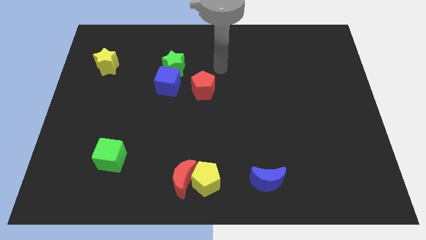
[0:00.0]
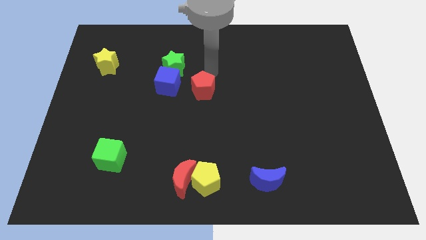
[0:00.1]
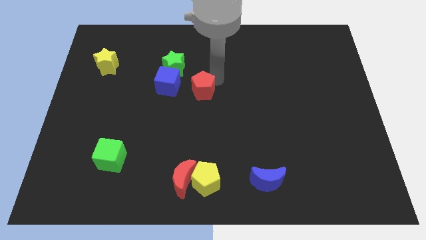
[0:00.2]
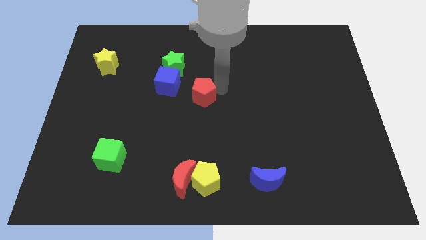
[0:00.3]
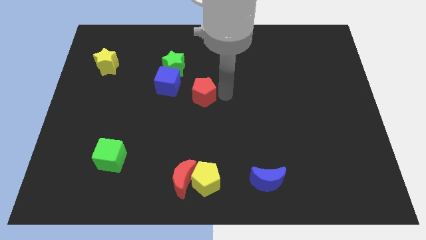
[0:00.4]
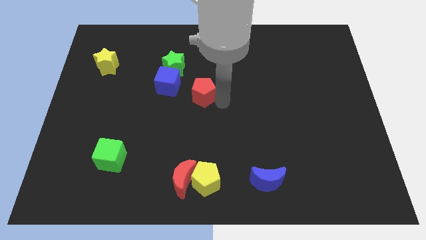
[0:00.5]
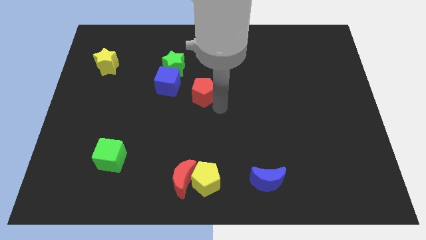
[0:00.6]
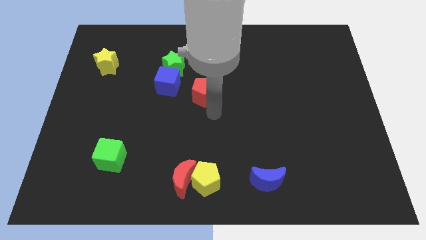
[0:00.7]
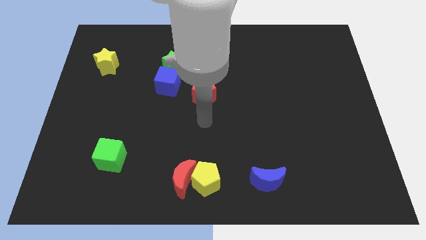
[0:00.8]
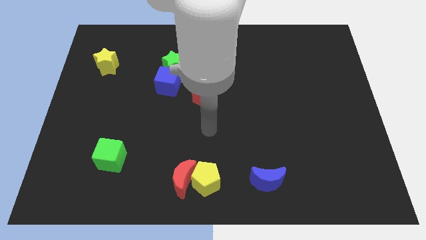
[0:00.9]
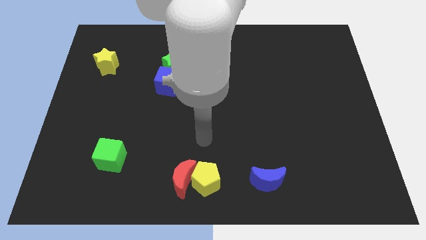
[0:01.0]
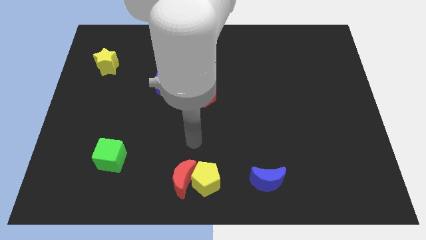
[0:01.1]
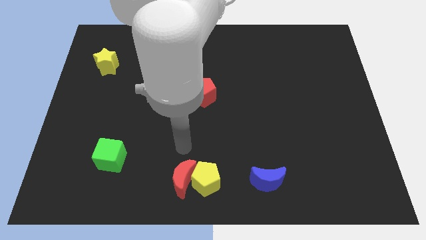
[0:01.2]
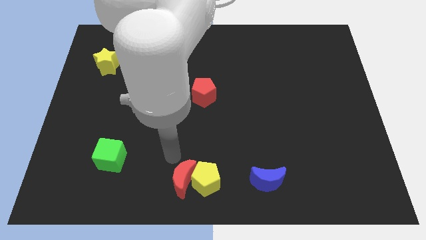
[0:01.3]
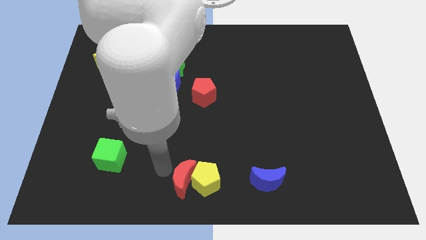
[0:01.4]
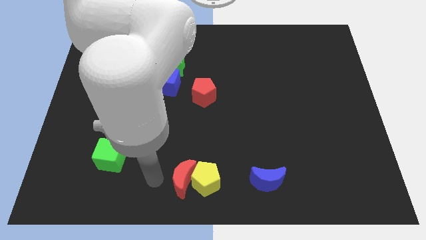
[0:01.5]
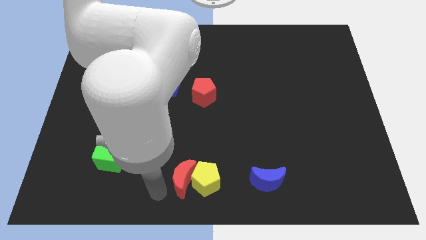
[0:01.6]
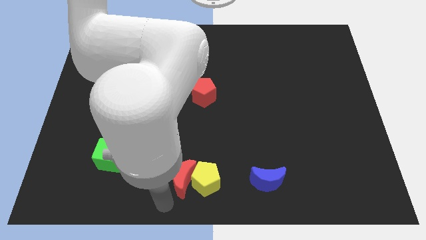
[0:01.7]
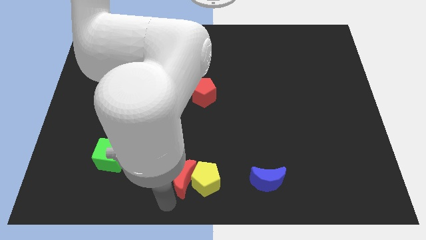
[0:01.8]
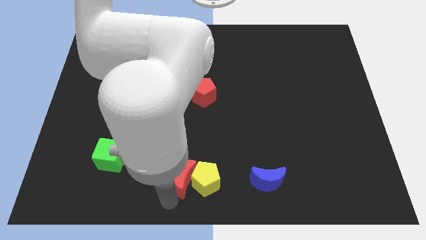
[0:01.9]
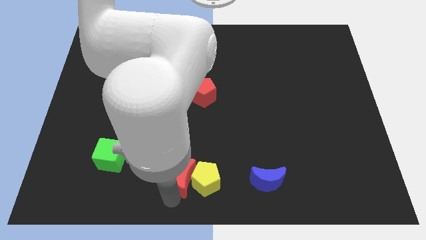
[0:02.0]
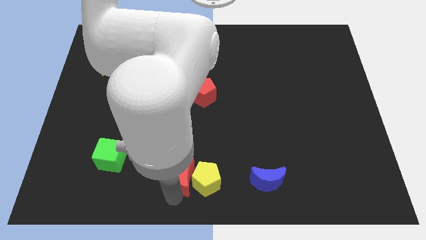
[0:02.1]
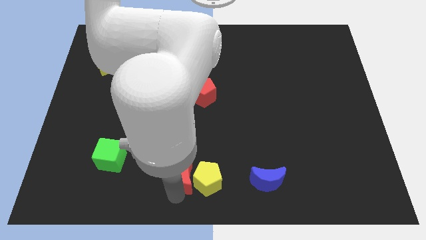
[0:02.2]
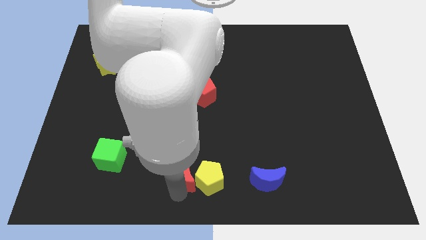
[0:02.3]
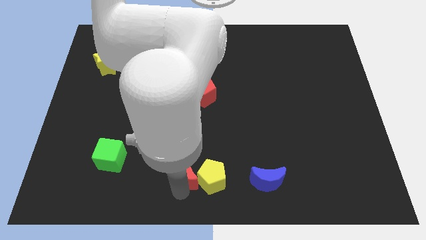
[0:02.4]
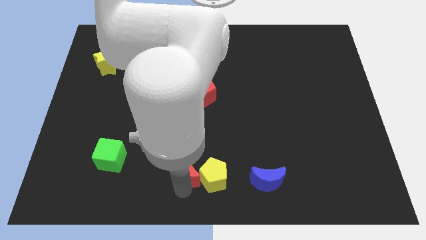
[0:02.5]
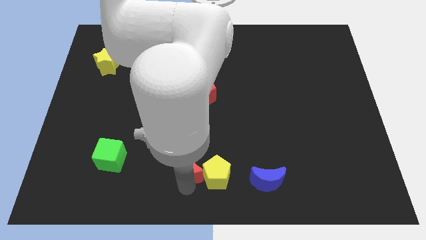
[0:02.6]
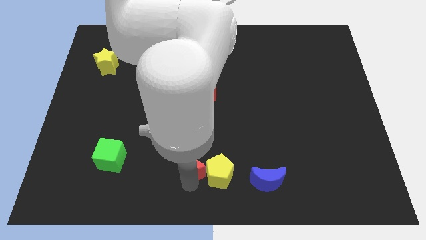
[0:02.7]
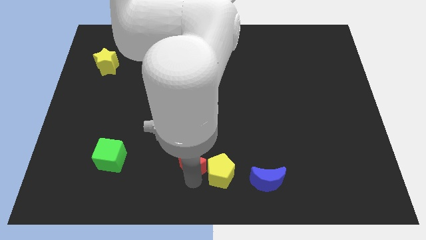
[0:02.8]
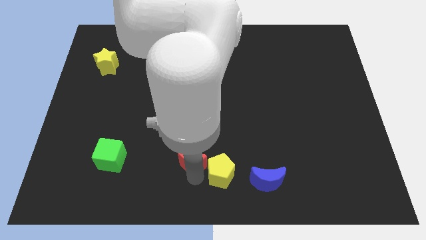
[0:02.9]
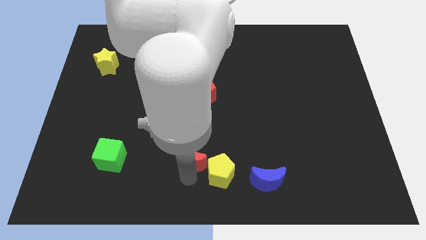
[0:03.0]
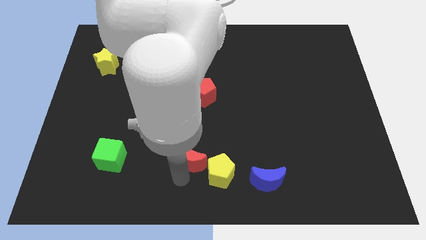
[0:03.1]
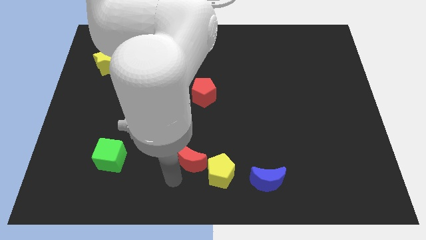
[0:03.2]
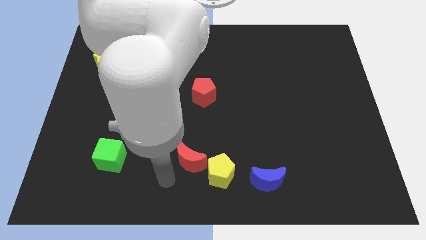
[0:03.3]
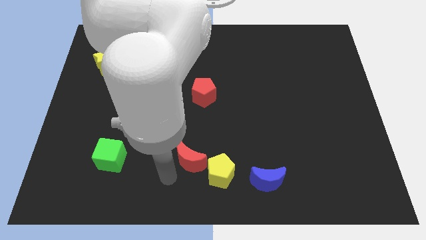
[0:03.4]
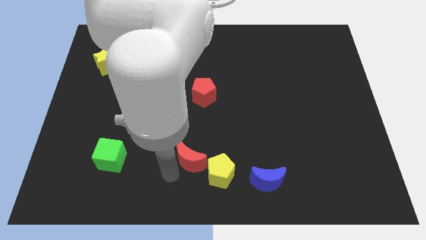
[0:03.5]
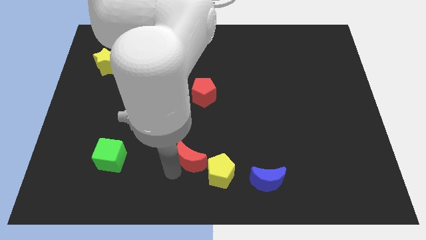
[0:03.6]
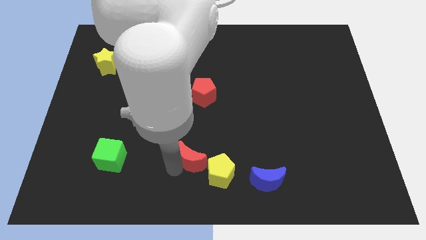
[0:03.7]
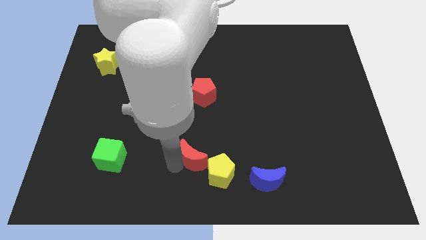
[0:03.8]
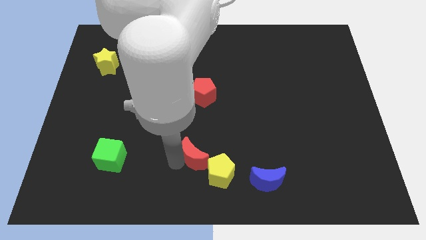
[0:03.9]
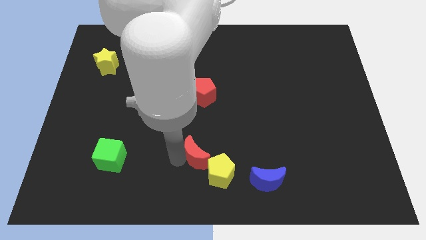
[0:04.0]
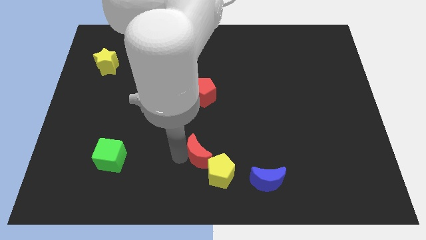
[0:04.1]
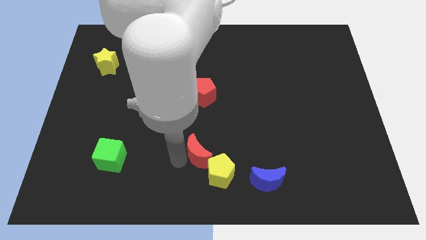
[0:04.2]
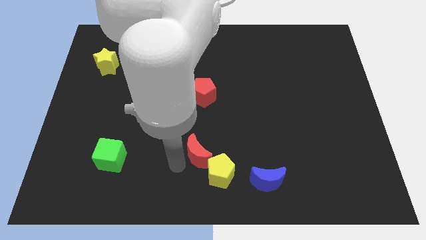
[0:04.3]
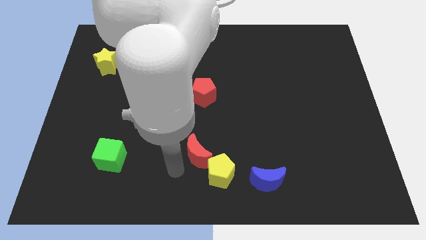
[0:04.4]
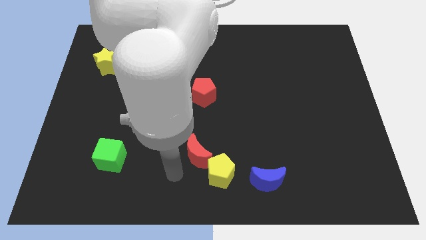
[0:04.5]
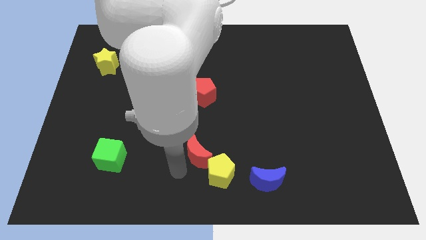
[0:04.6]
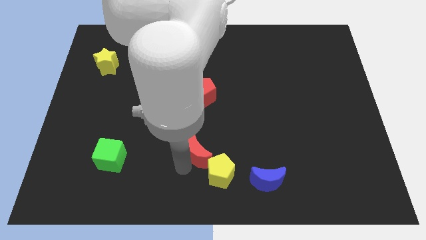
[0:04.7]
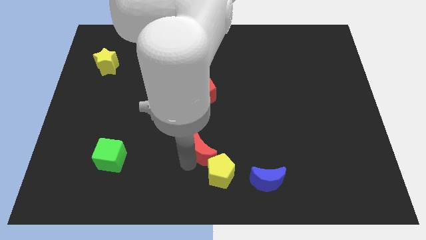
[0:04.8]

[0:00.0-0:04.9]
push the red moon upwards and then right a bit

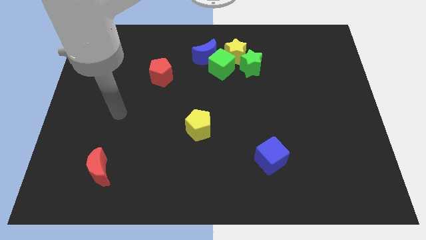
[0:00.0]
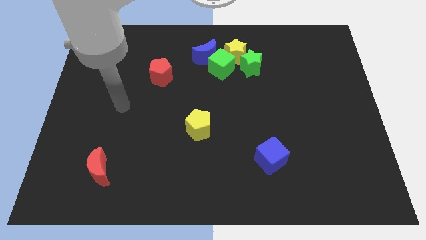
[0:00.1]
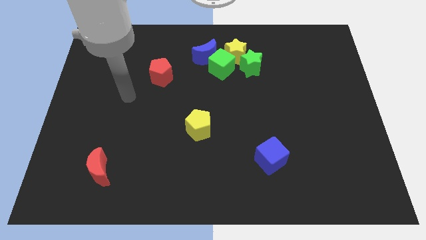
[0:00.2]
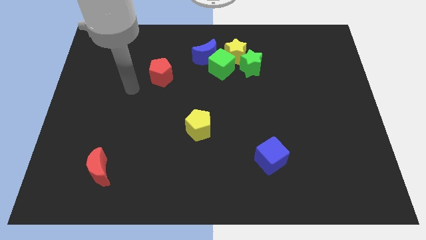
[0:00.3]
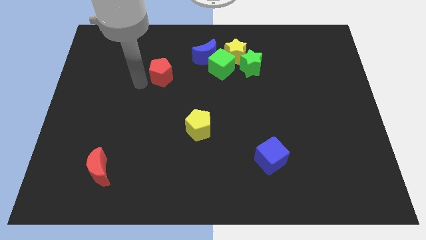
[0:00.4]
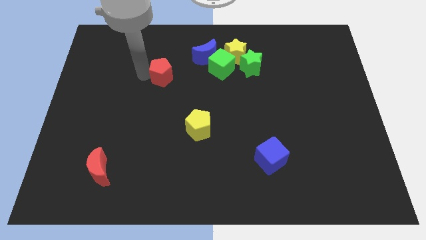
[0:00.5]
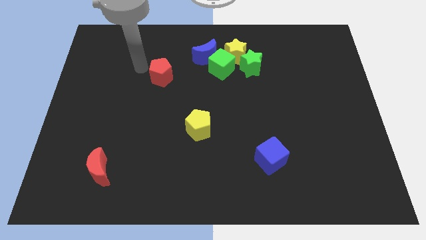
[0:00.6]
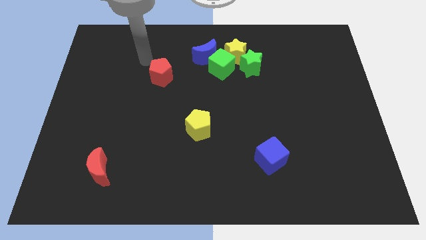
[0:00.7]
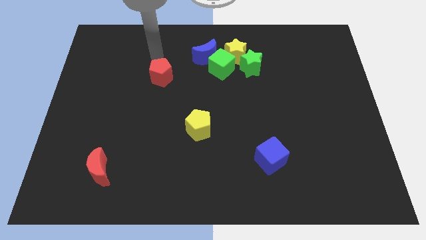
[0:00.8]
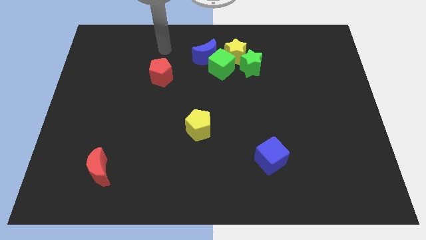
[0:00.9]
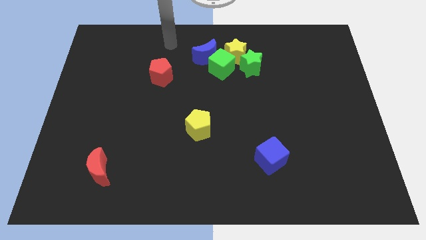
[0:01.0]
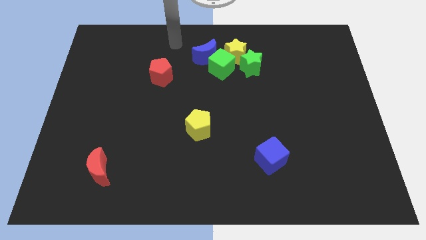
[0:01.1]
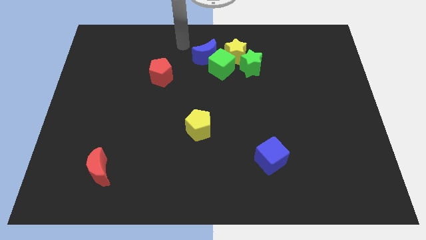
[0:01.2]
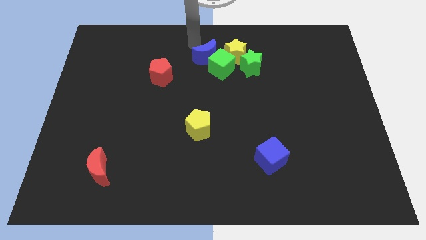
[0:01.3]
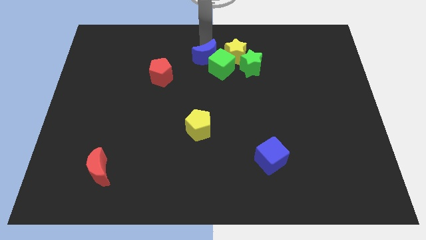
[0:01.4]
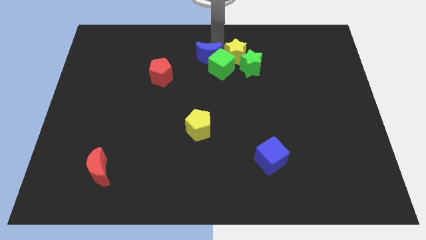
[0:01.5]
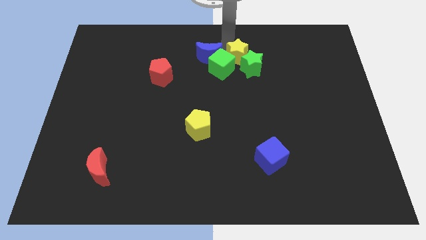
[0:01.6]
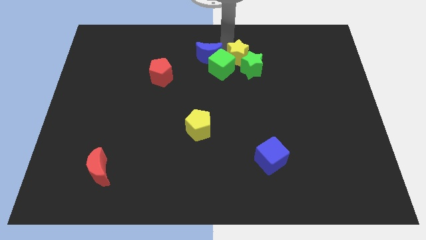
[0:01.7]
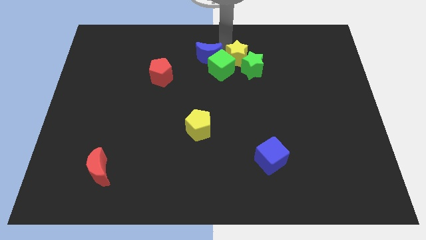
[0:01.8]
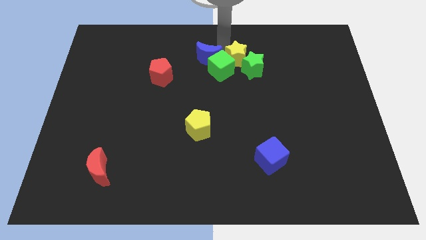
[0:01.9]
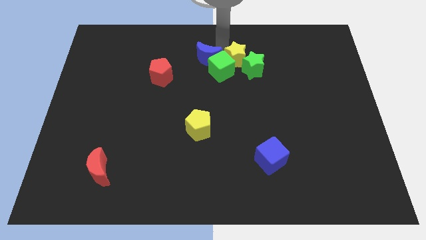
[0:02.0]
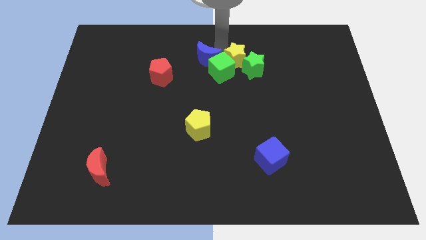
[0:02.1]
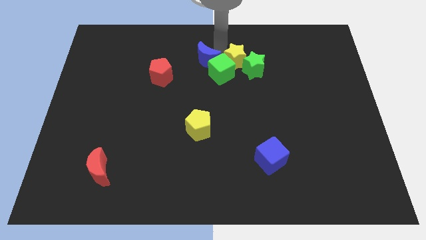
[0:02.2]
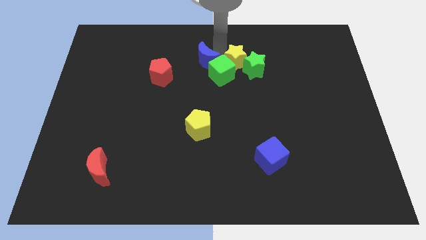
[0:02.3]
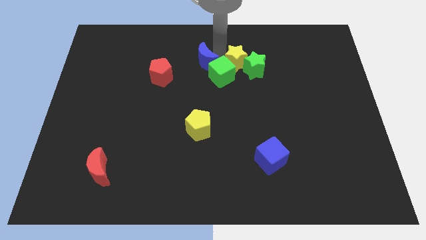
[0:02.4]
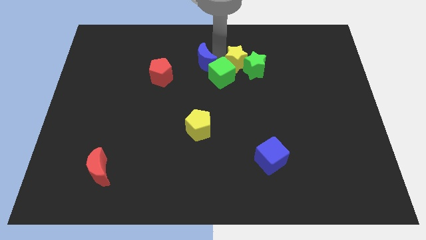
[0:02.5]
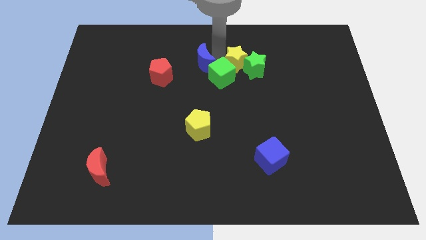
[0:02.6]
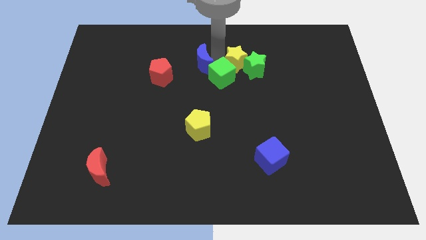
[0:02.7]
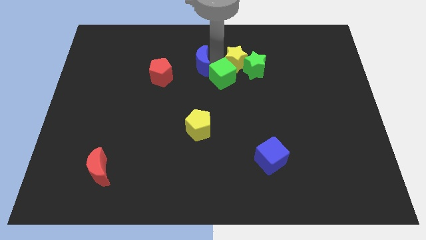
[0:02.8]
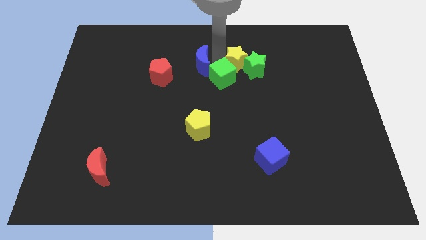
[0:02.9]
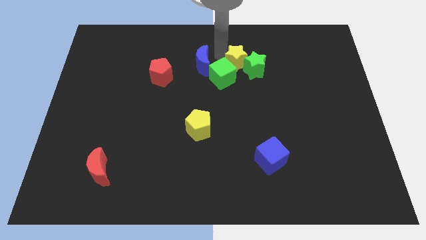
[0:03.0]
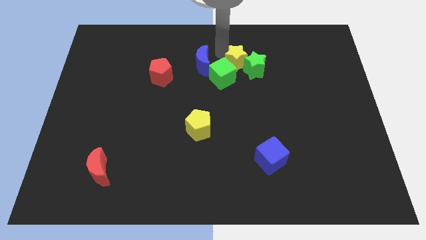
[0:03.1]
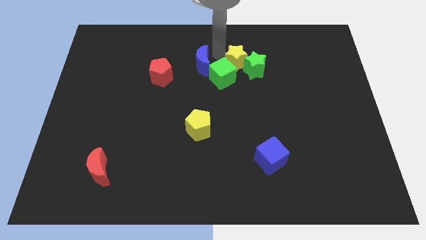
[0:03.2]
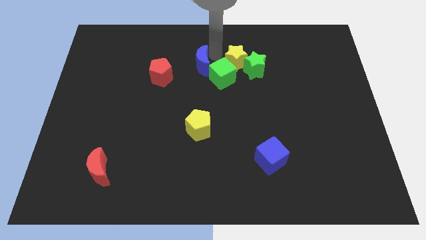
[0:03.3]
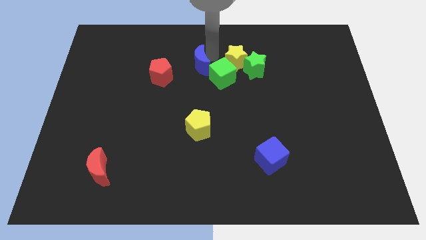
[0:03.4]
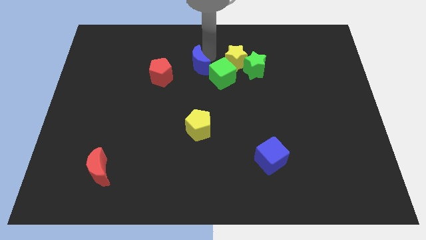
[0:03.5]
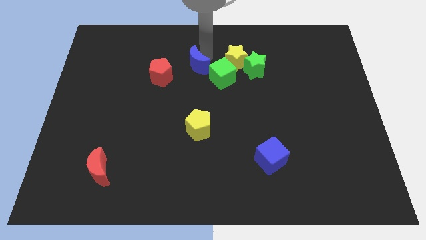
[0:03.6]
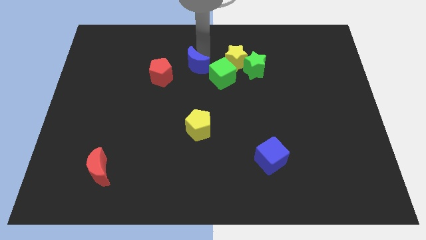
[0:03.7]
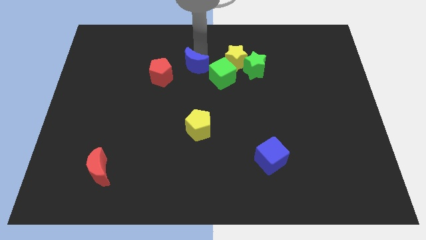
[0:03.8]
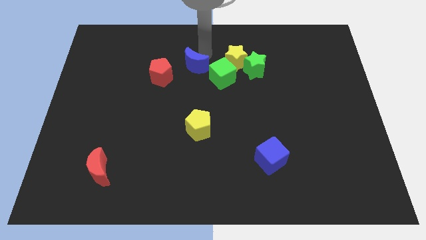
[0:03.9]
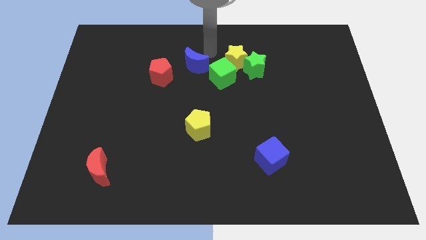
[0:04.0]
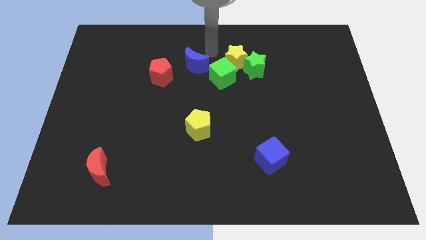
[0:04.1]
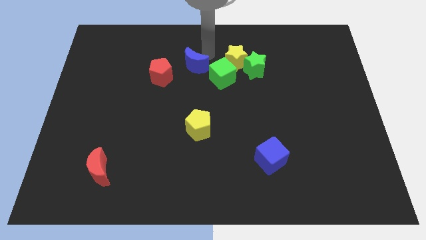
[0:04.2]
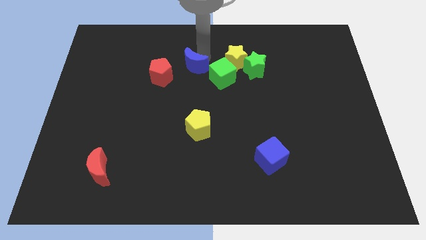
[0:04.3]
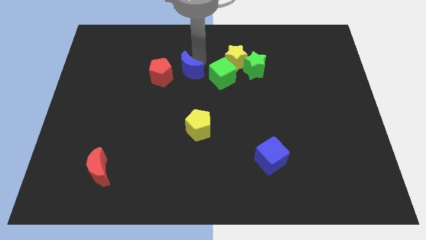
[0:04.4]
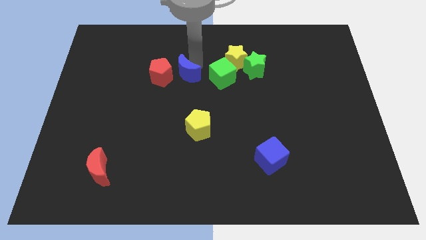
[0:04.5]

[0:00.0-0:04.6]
push the blue moon somewhat diagonally down and to the left
